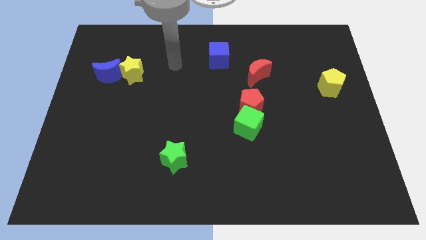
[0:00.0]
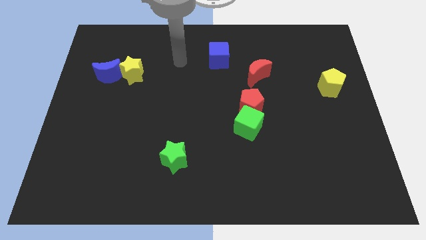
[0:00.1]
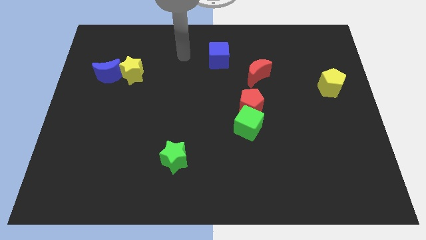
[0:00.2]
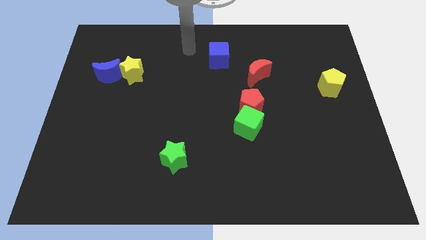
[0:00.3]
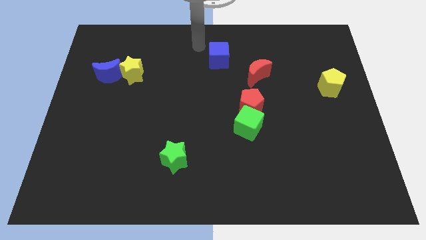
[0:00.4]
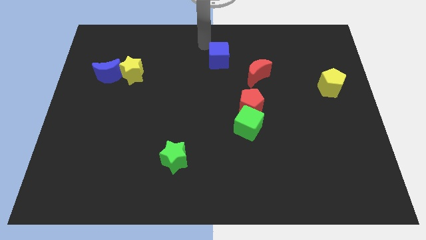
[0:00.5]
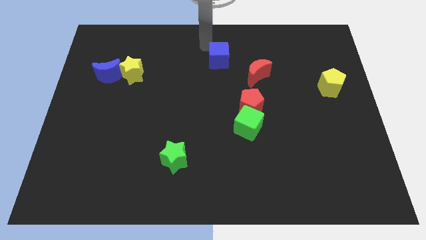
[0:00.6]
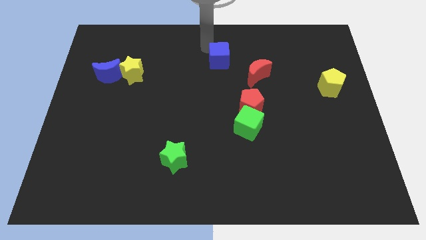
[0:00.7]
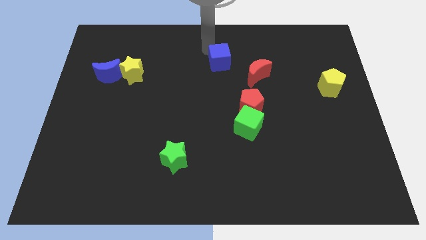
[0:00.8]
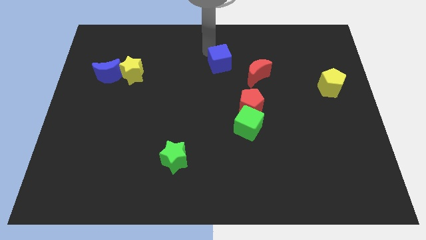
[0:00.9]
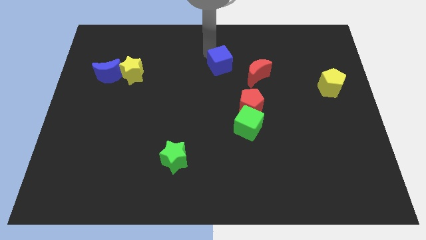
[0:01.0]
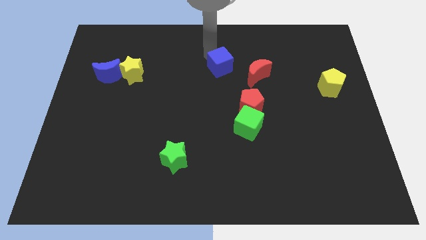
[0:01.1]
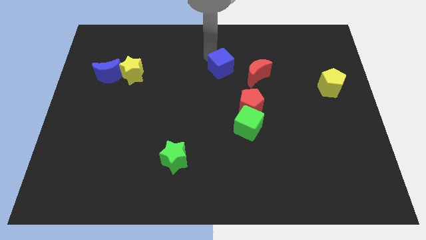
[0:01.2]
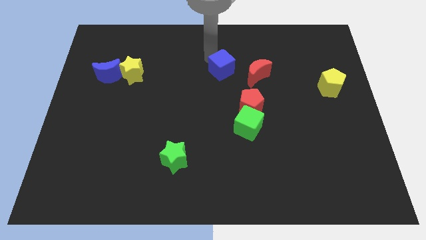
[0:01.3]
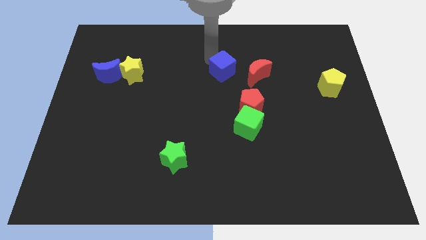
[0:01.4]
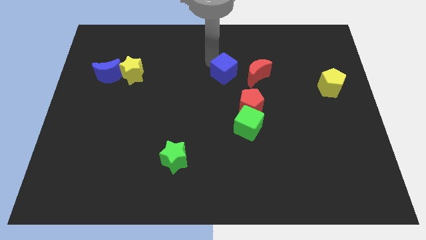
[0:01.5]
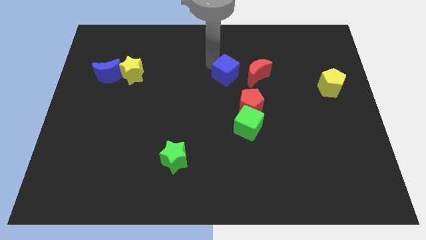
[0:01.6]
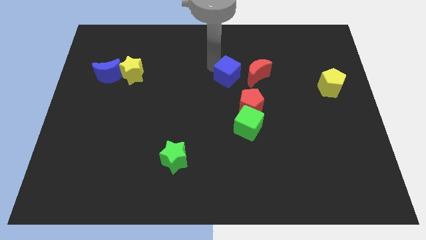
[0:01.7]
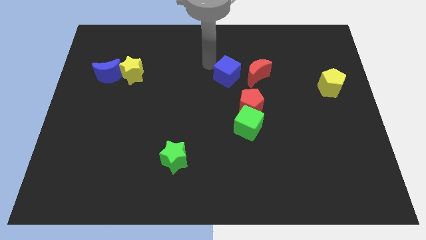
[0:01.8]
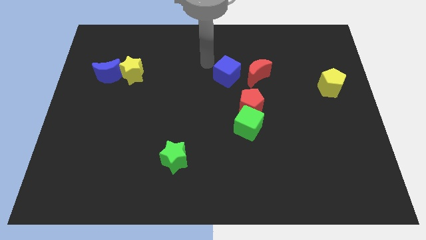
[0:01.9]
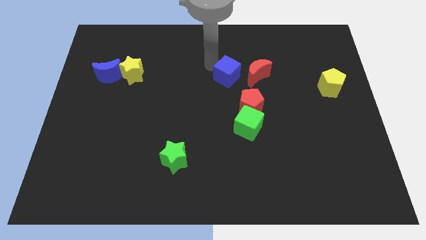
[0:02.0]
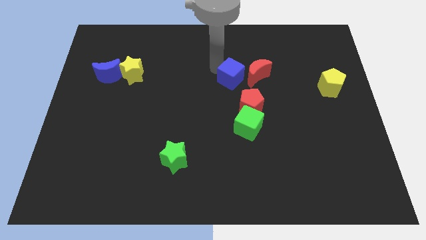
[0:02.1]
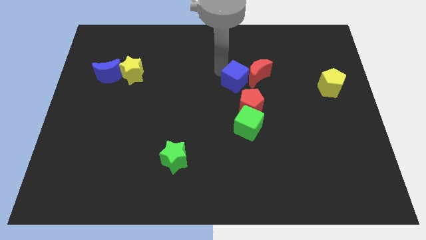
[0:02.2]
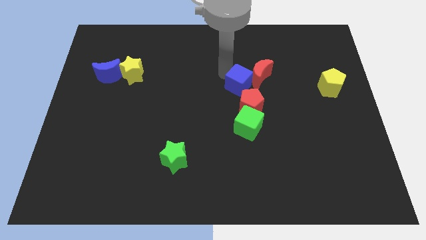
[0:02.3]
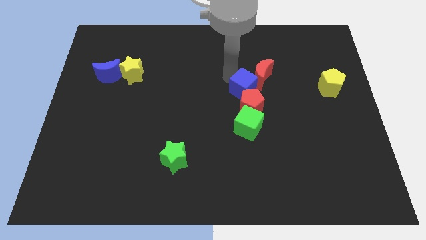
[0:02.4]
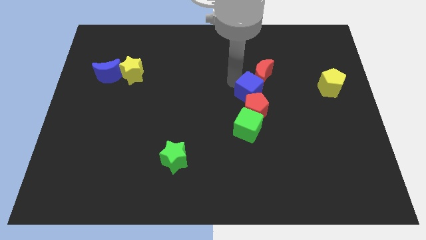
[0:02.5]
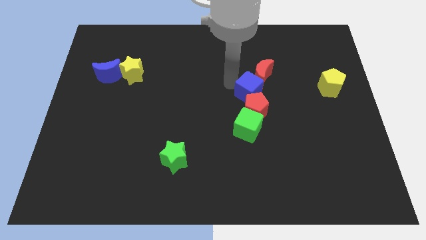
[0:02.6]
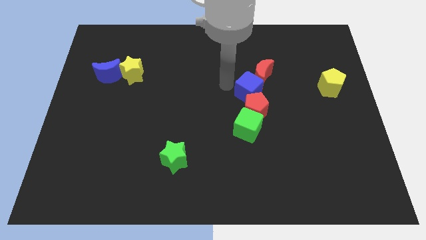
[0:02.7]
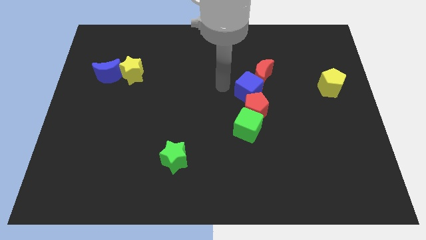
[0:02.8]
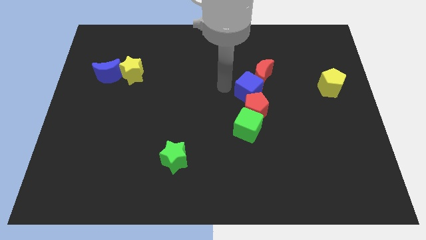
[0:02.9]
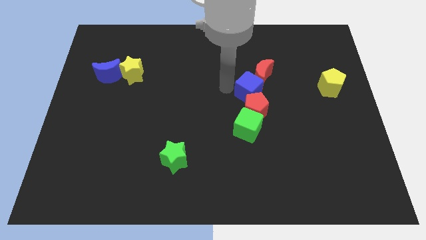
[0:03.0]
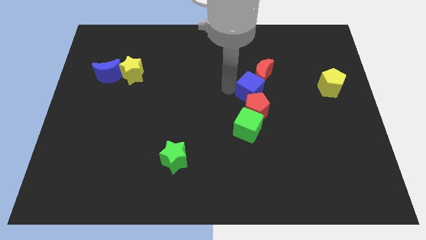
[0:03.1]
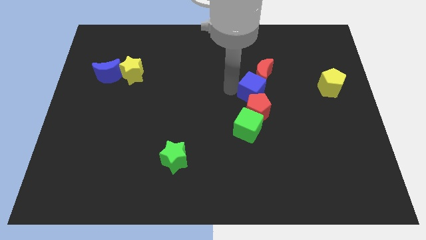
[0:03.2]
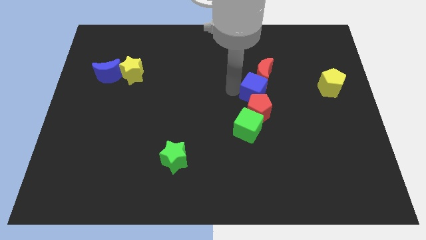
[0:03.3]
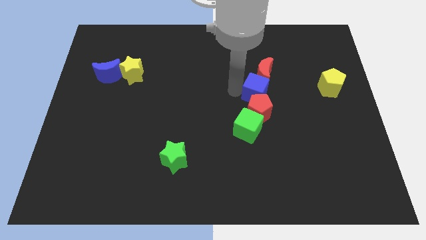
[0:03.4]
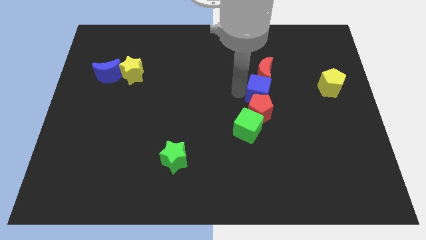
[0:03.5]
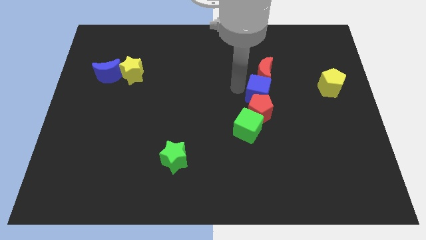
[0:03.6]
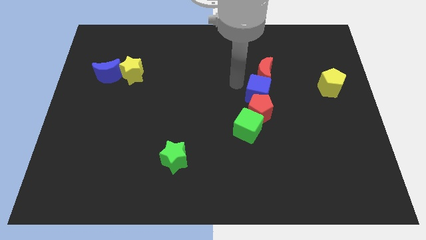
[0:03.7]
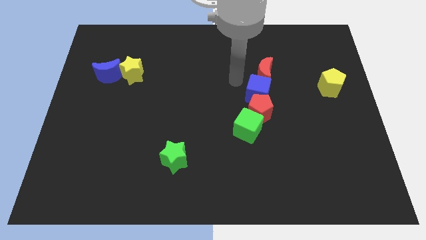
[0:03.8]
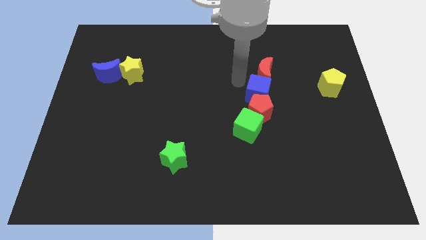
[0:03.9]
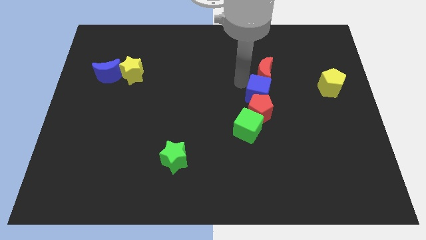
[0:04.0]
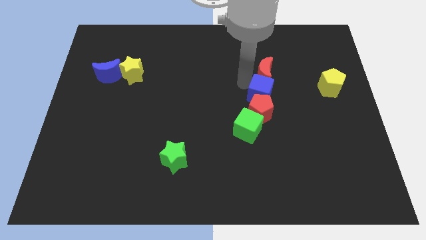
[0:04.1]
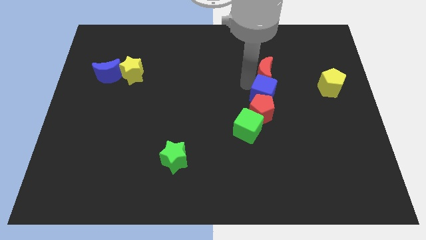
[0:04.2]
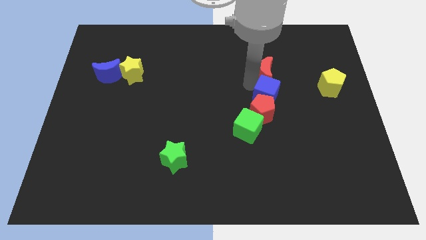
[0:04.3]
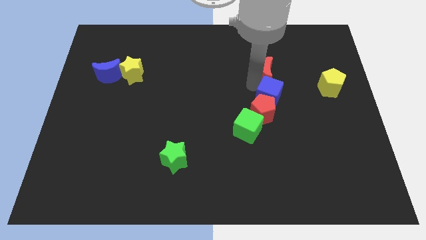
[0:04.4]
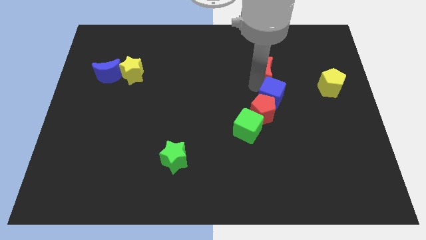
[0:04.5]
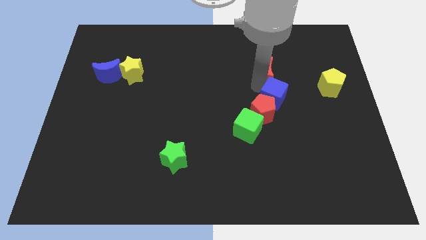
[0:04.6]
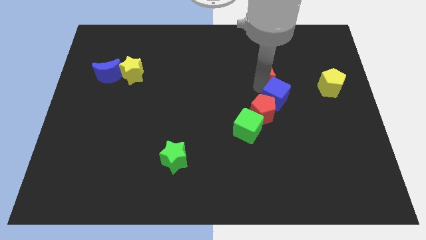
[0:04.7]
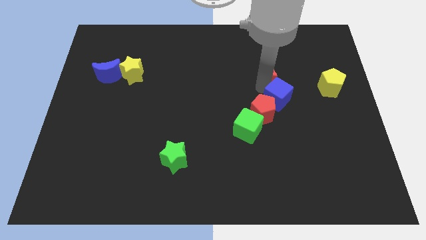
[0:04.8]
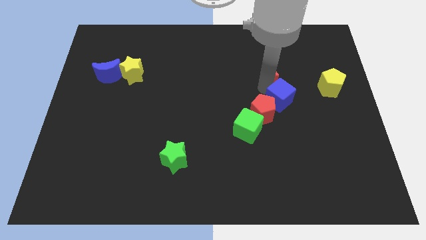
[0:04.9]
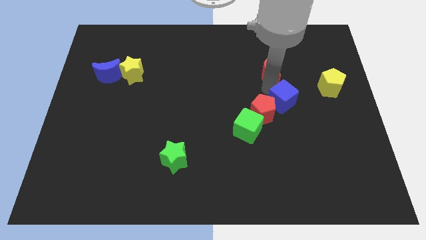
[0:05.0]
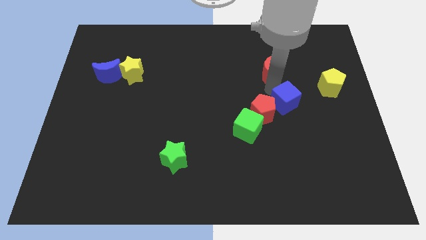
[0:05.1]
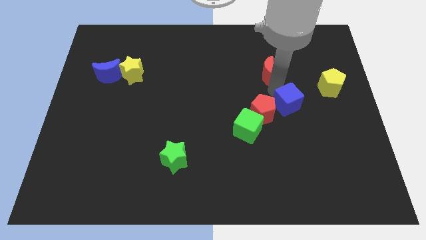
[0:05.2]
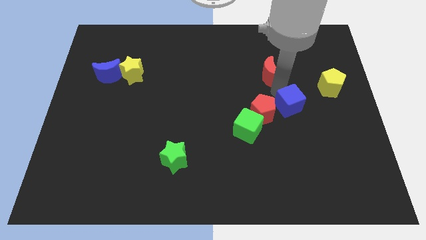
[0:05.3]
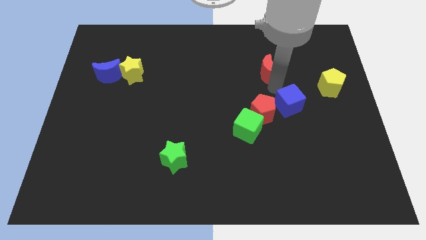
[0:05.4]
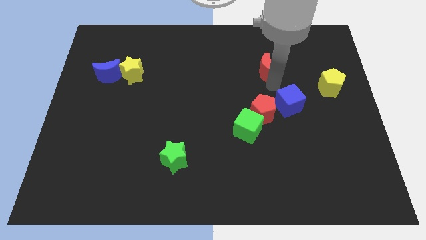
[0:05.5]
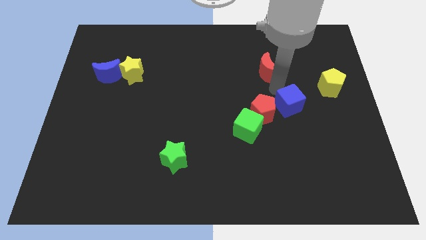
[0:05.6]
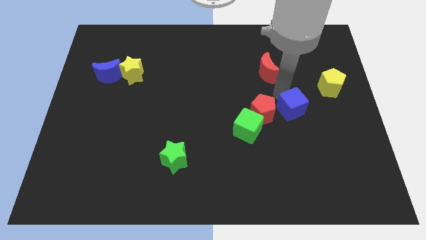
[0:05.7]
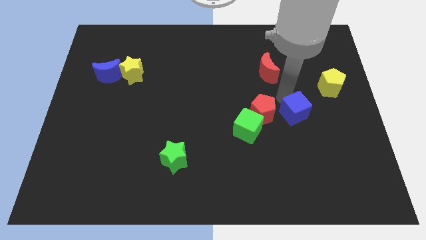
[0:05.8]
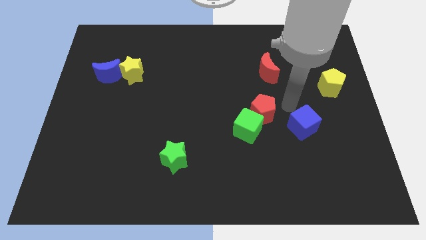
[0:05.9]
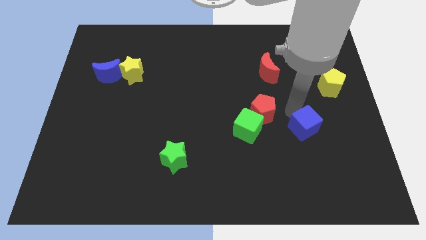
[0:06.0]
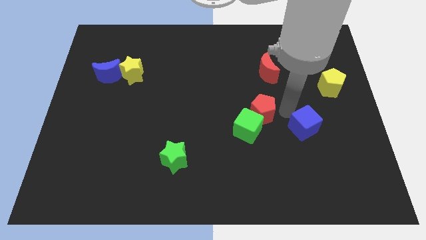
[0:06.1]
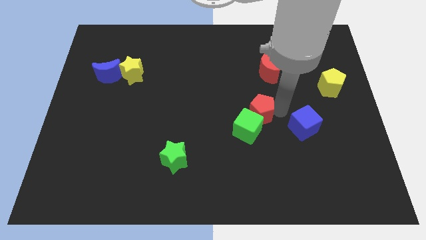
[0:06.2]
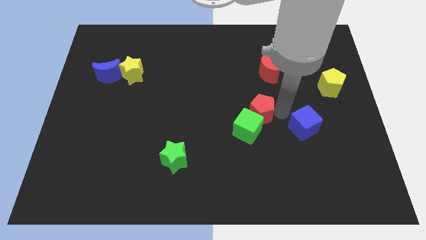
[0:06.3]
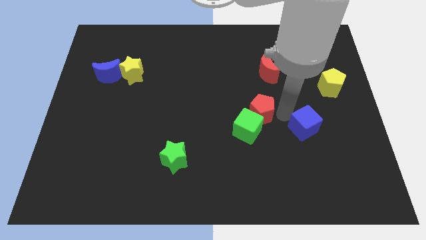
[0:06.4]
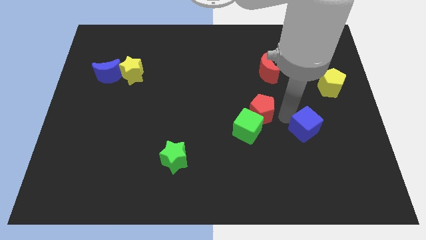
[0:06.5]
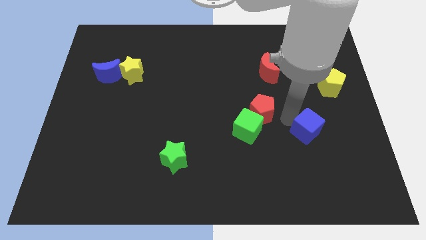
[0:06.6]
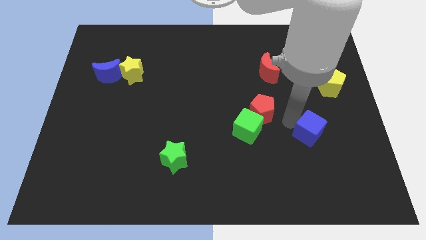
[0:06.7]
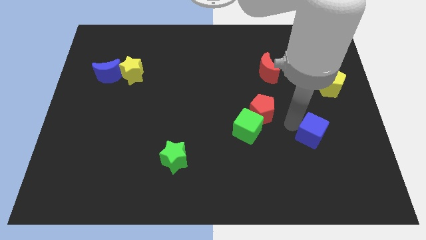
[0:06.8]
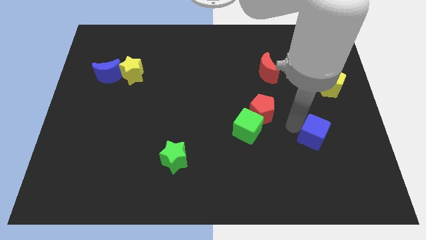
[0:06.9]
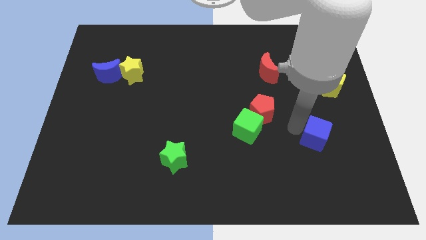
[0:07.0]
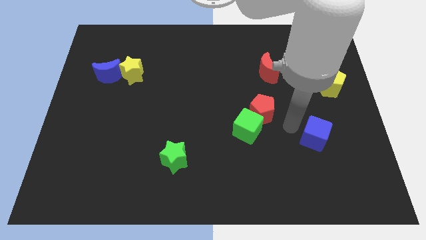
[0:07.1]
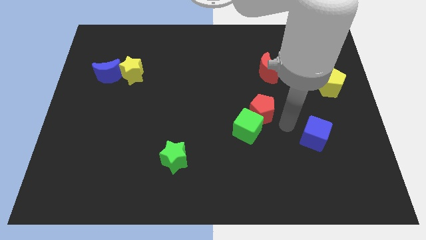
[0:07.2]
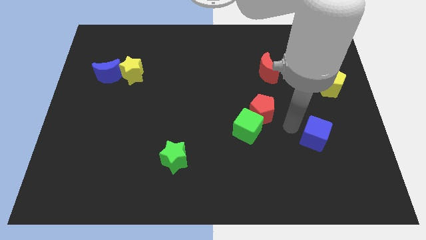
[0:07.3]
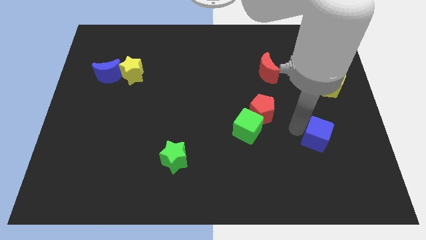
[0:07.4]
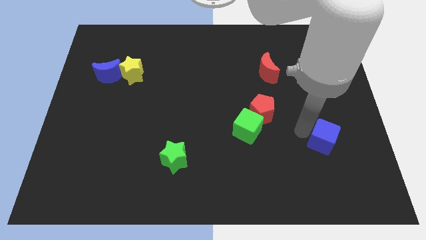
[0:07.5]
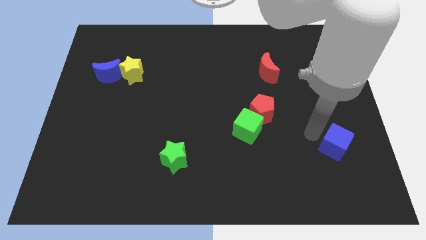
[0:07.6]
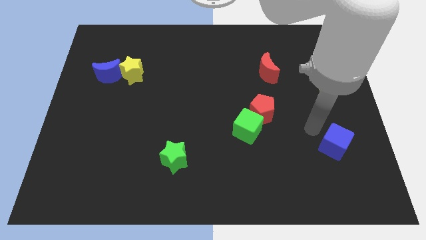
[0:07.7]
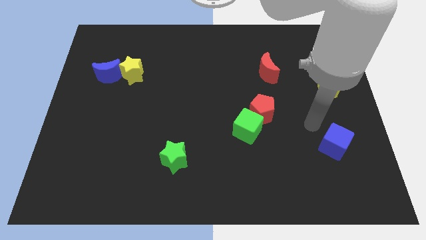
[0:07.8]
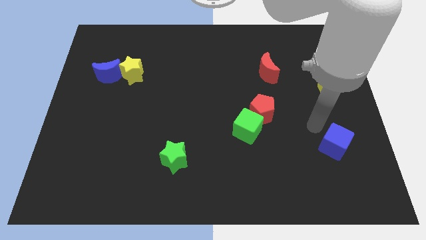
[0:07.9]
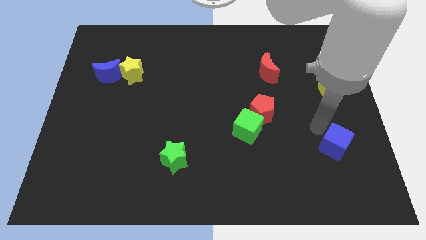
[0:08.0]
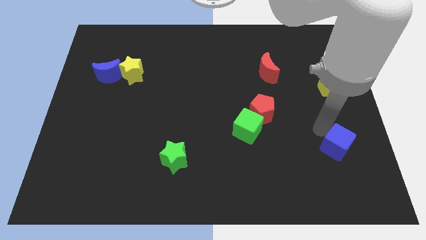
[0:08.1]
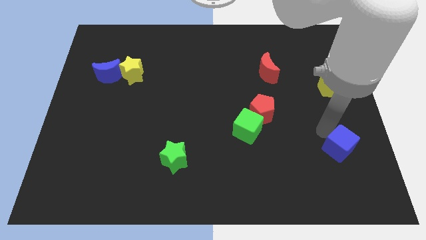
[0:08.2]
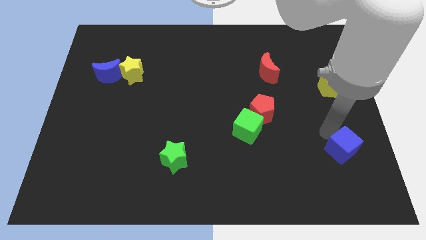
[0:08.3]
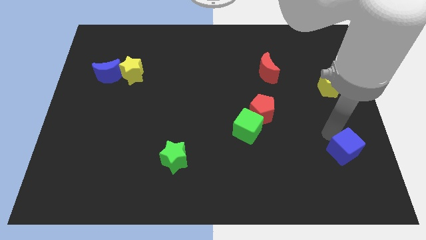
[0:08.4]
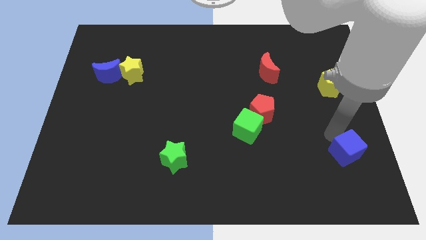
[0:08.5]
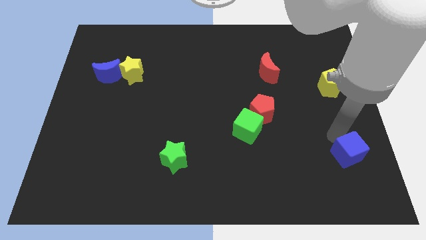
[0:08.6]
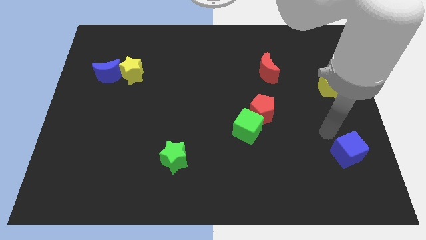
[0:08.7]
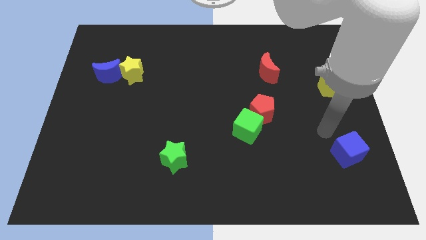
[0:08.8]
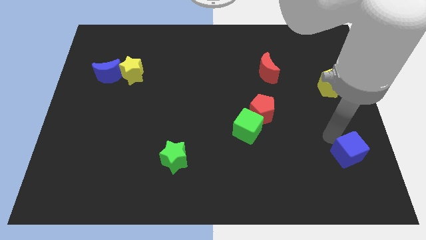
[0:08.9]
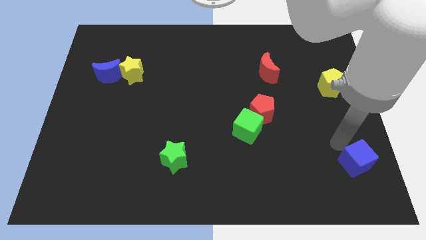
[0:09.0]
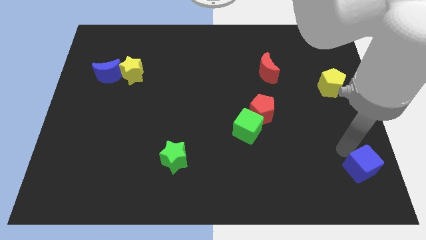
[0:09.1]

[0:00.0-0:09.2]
move the blue cube to the lower right corner
